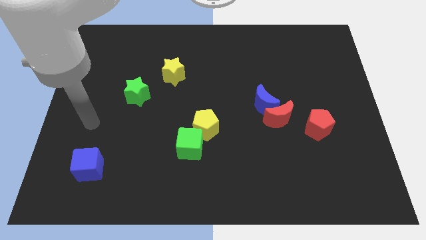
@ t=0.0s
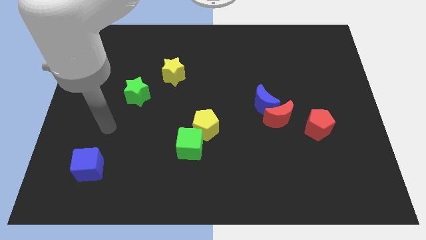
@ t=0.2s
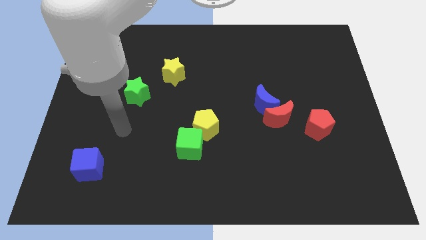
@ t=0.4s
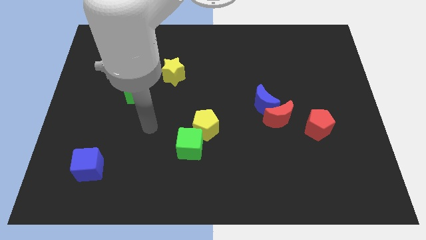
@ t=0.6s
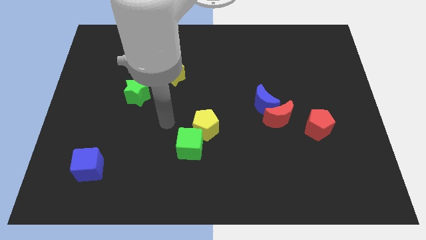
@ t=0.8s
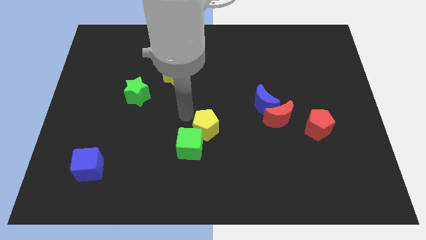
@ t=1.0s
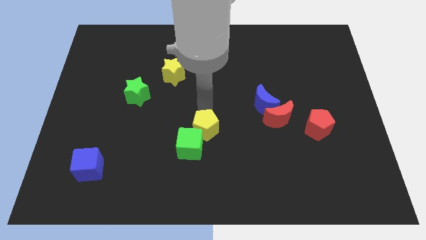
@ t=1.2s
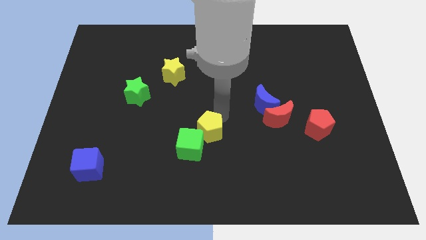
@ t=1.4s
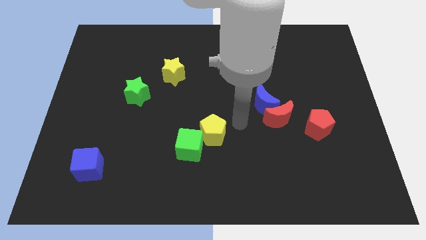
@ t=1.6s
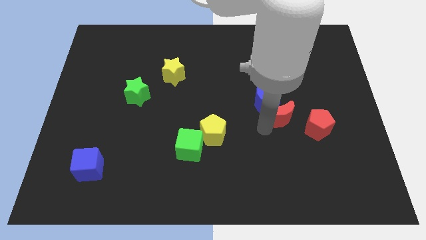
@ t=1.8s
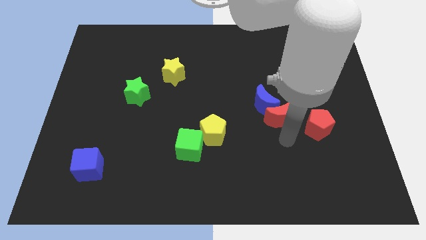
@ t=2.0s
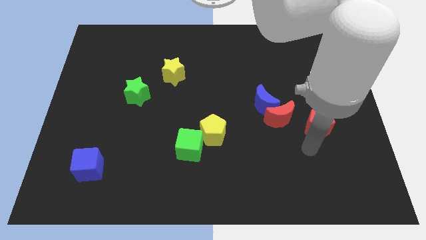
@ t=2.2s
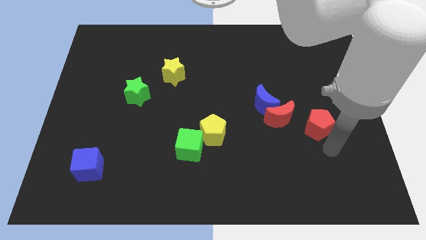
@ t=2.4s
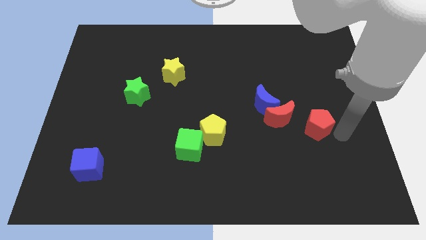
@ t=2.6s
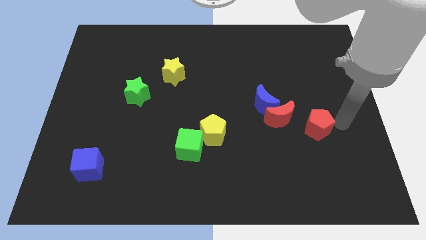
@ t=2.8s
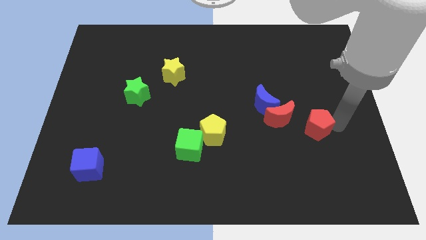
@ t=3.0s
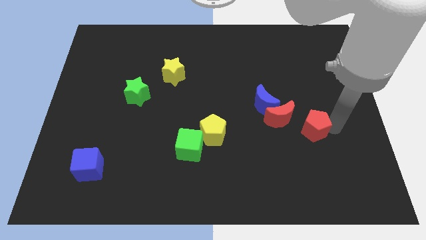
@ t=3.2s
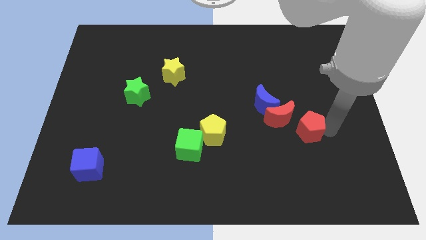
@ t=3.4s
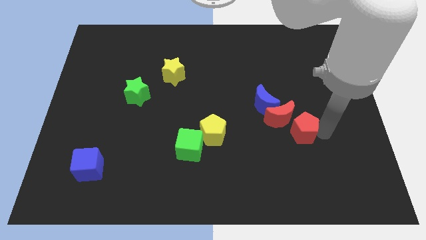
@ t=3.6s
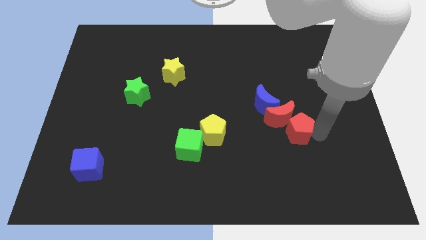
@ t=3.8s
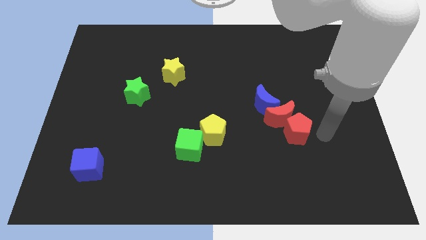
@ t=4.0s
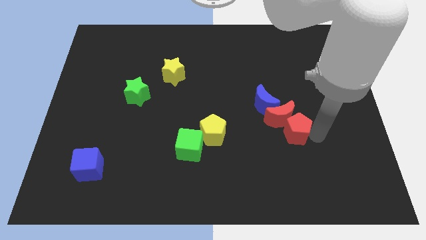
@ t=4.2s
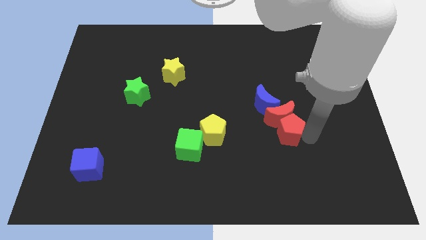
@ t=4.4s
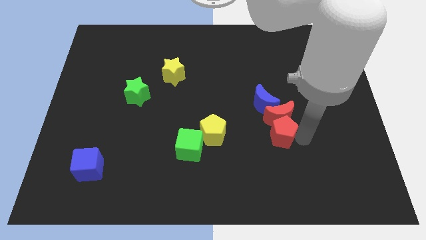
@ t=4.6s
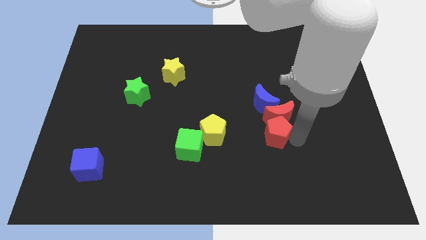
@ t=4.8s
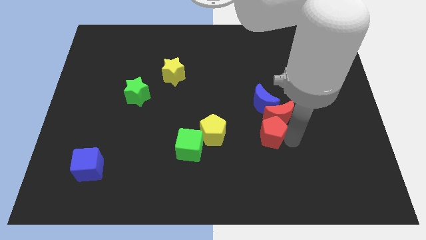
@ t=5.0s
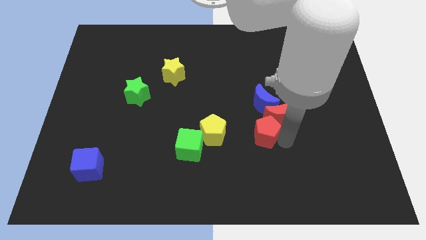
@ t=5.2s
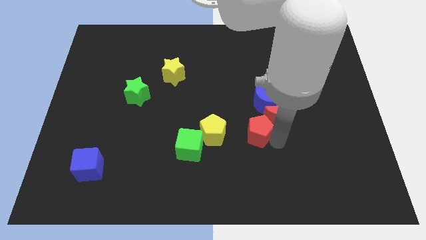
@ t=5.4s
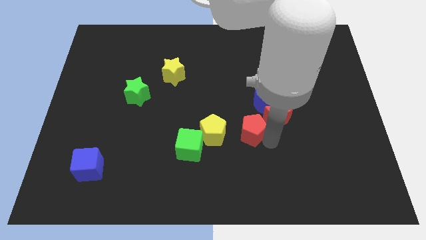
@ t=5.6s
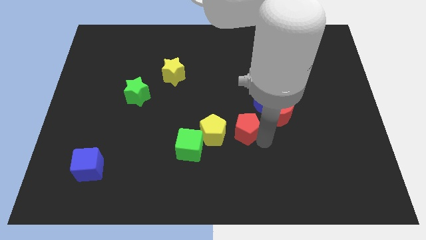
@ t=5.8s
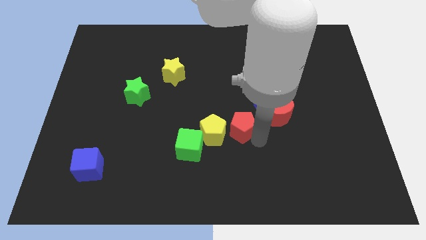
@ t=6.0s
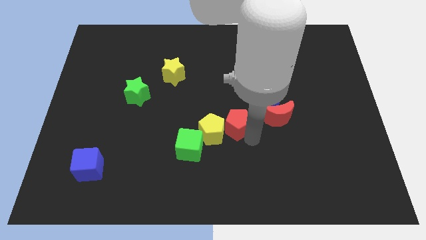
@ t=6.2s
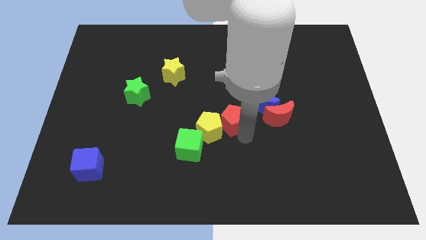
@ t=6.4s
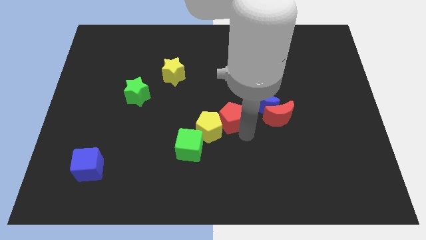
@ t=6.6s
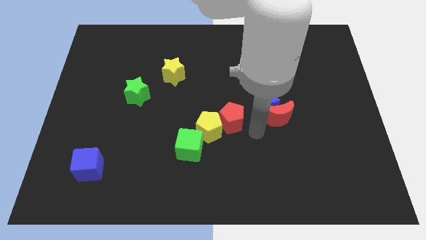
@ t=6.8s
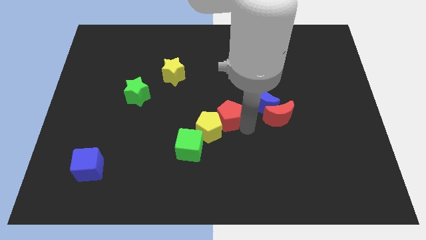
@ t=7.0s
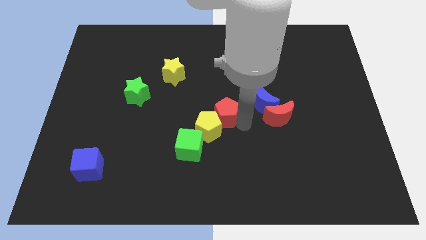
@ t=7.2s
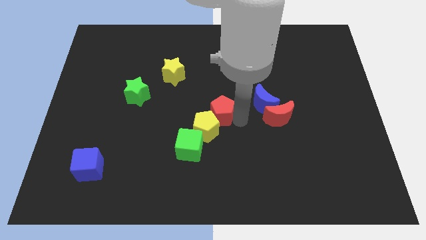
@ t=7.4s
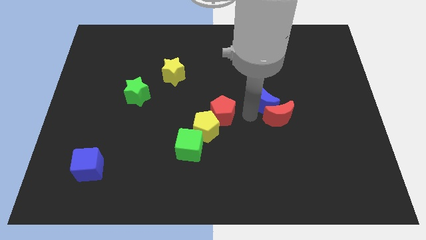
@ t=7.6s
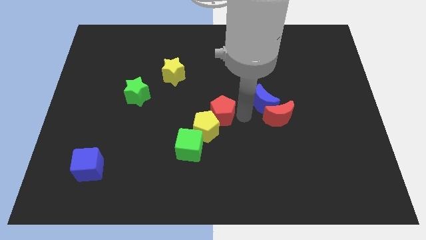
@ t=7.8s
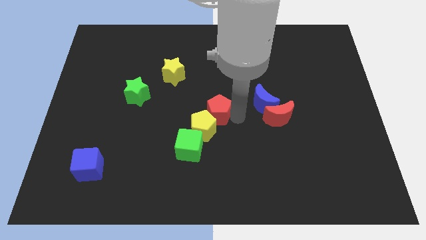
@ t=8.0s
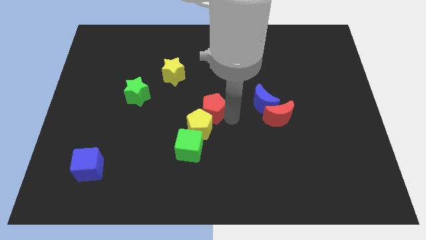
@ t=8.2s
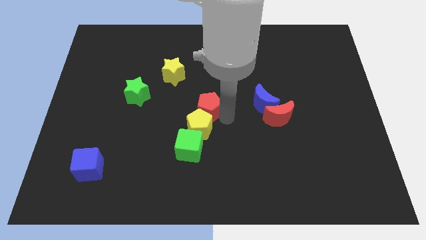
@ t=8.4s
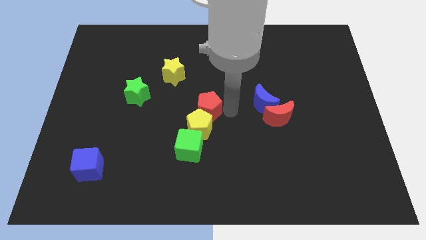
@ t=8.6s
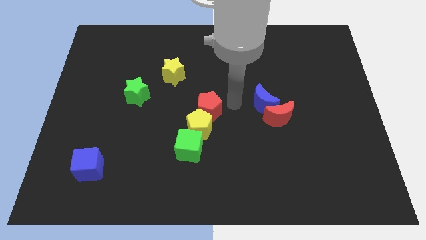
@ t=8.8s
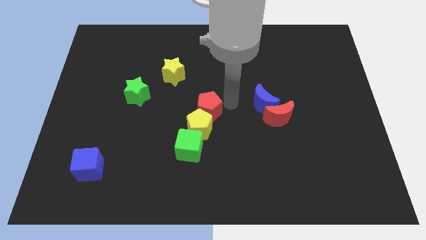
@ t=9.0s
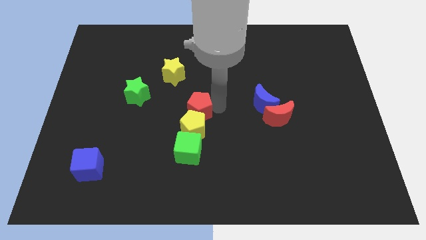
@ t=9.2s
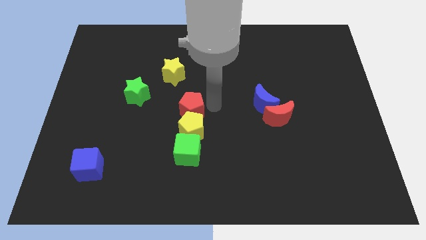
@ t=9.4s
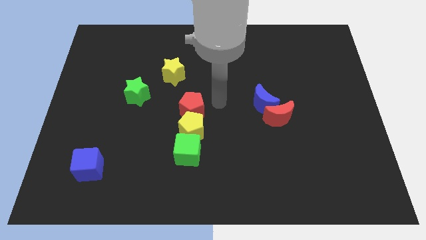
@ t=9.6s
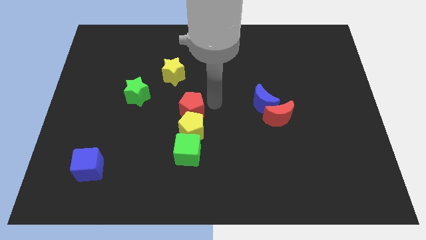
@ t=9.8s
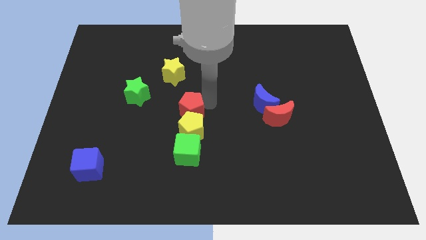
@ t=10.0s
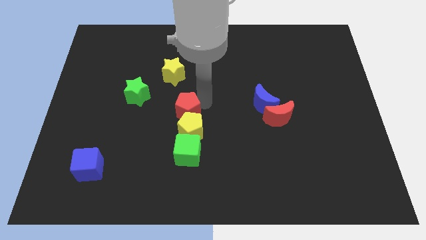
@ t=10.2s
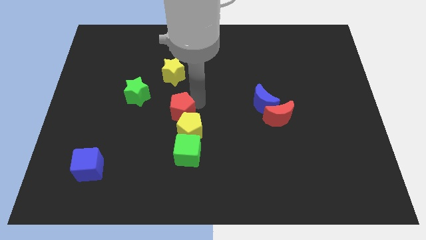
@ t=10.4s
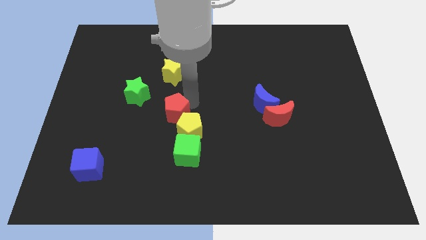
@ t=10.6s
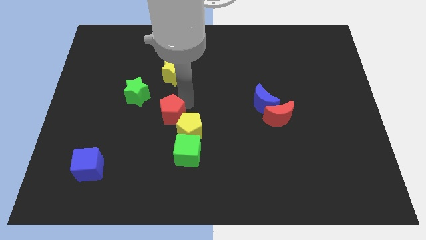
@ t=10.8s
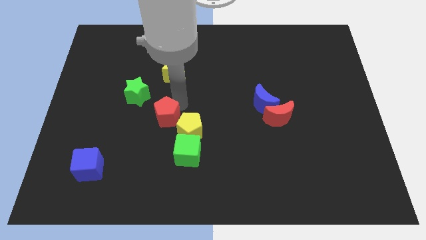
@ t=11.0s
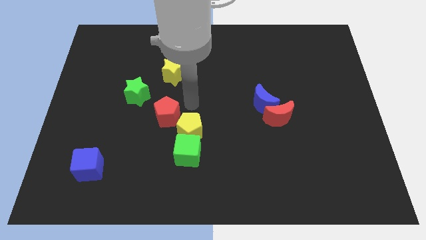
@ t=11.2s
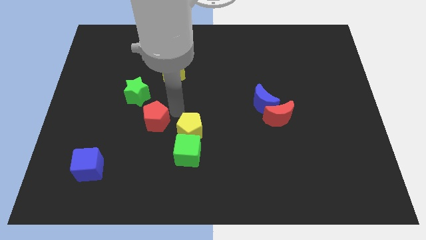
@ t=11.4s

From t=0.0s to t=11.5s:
slide the red pentagon to the bottom of the green star

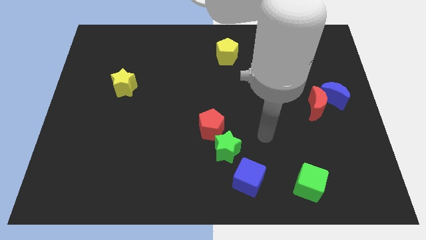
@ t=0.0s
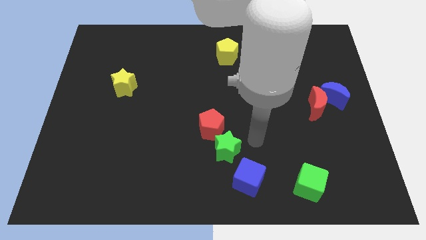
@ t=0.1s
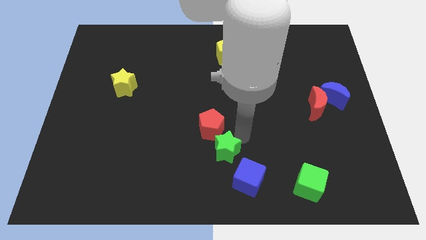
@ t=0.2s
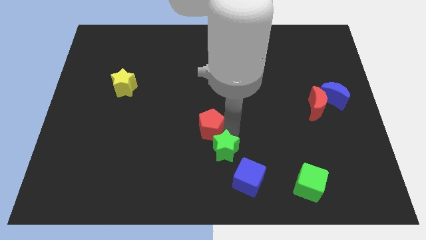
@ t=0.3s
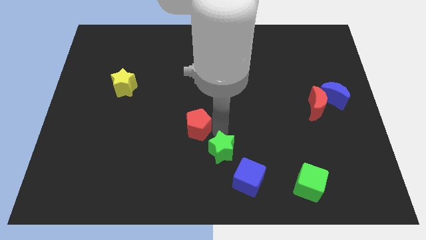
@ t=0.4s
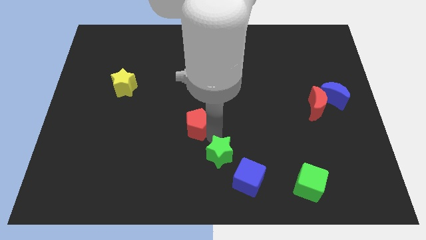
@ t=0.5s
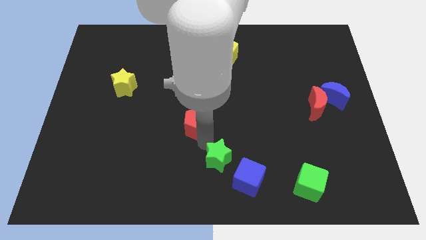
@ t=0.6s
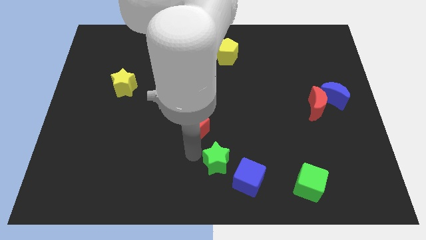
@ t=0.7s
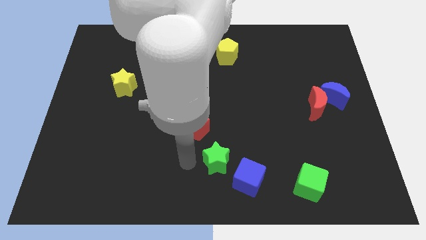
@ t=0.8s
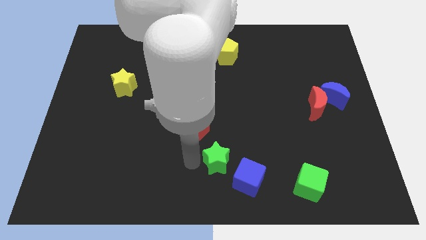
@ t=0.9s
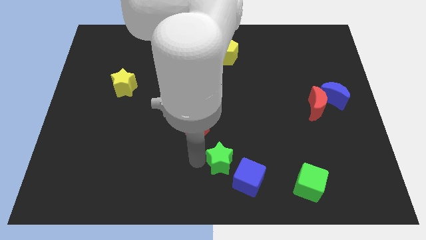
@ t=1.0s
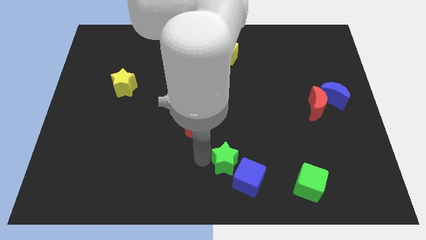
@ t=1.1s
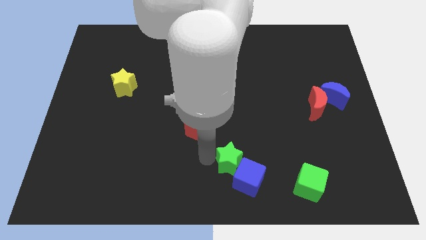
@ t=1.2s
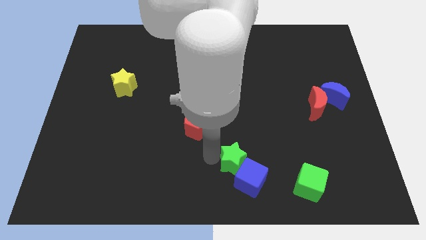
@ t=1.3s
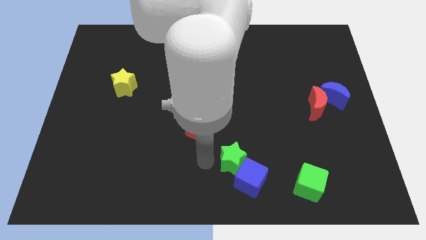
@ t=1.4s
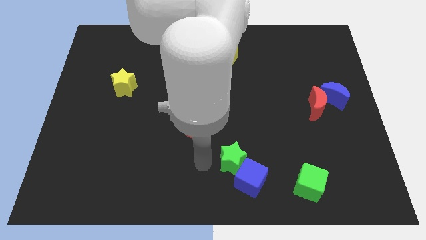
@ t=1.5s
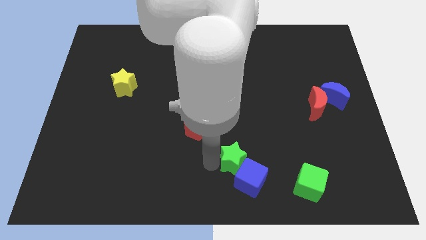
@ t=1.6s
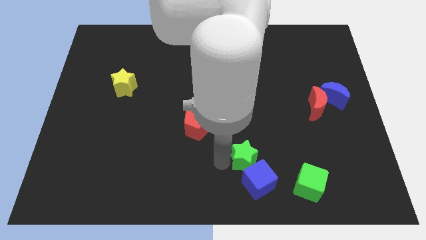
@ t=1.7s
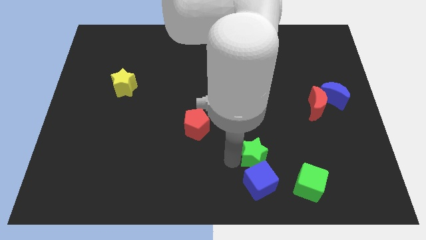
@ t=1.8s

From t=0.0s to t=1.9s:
push the green star to the top right side of the blue cube
